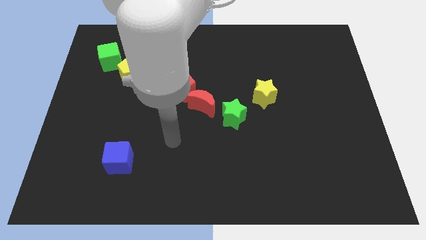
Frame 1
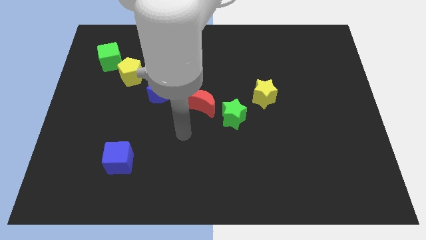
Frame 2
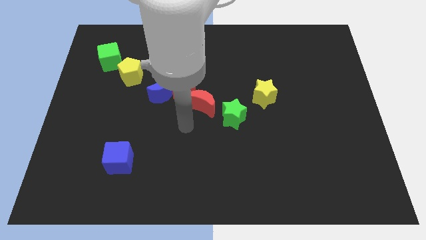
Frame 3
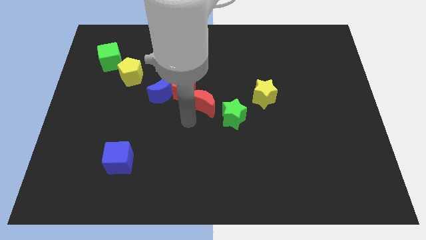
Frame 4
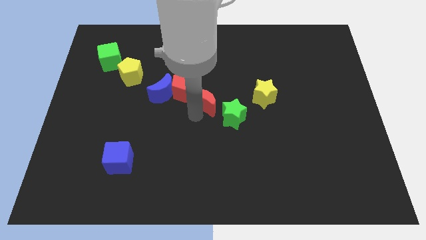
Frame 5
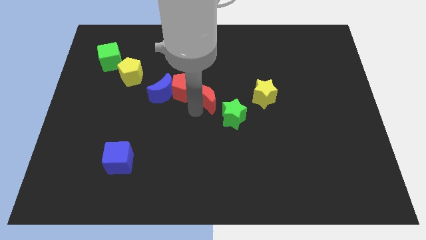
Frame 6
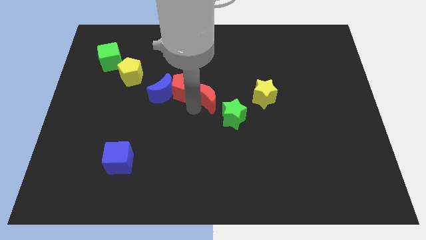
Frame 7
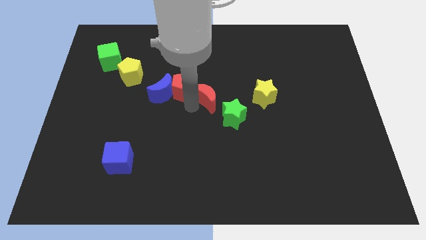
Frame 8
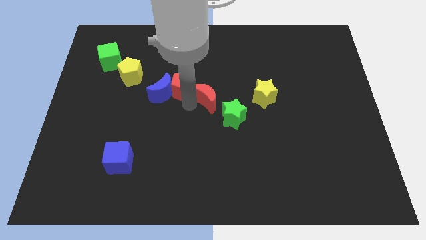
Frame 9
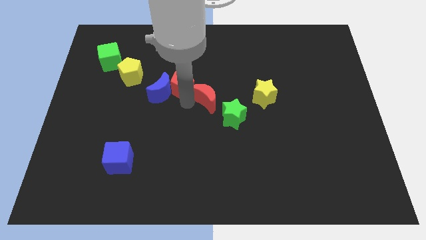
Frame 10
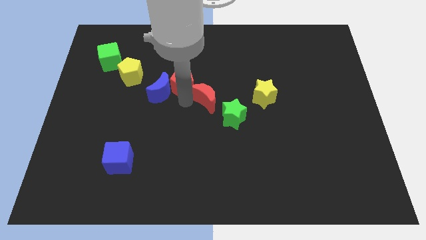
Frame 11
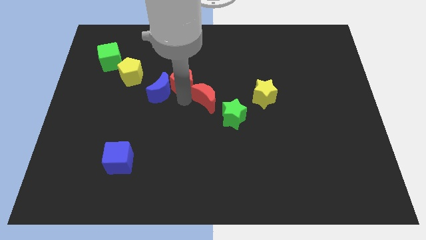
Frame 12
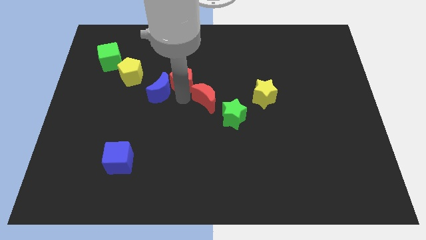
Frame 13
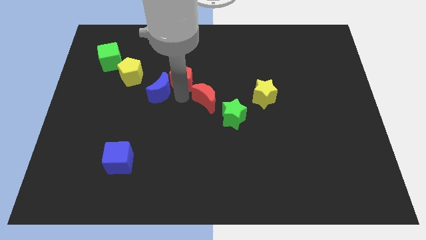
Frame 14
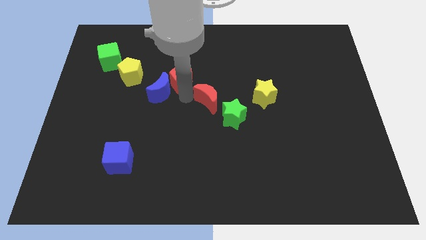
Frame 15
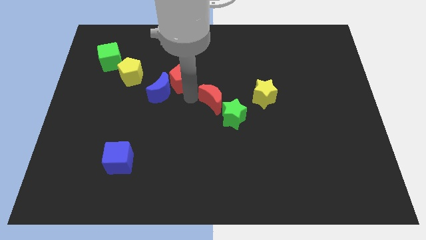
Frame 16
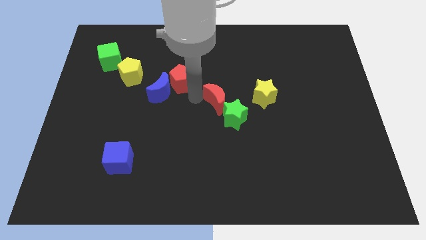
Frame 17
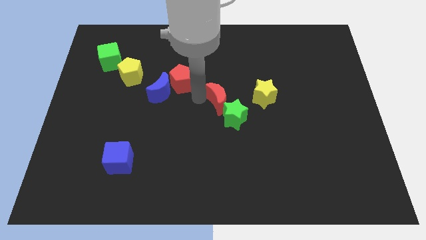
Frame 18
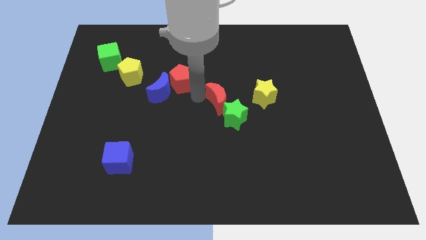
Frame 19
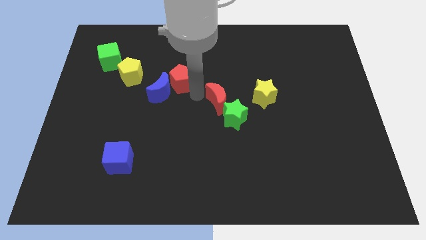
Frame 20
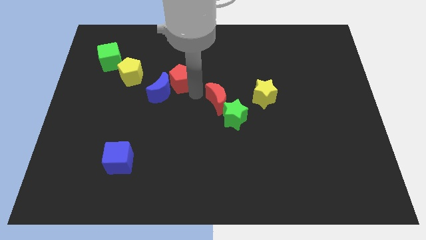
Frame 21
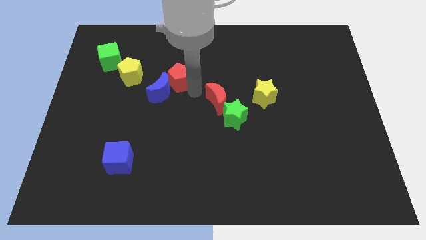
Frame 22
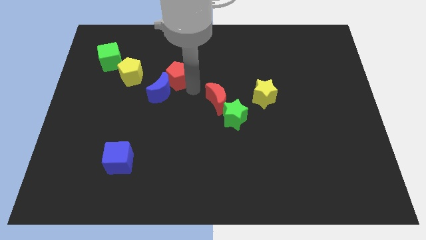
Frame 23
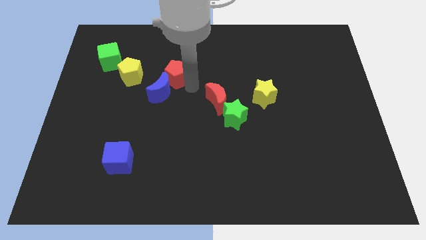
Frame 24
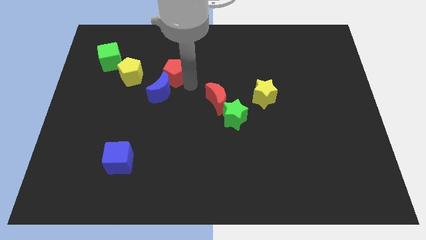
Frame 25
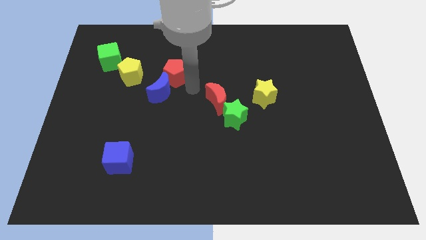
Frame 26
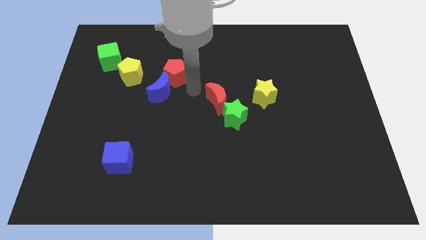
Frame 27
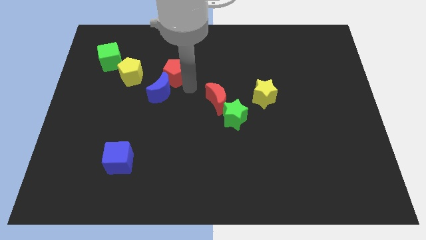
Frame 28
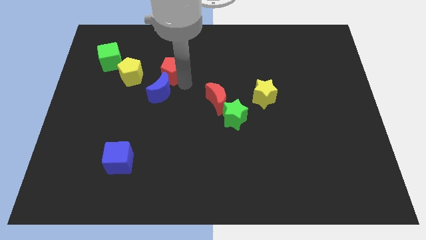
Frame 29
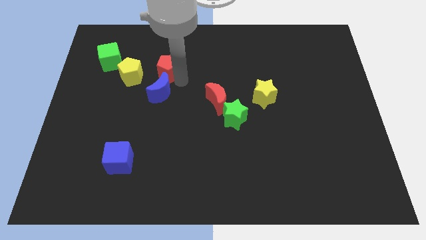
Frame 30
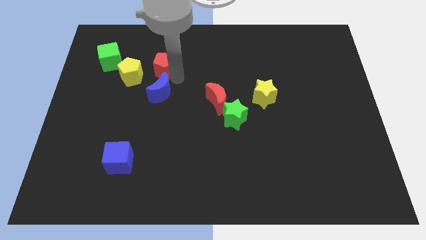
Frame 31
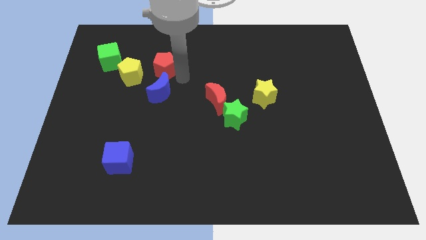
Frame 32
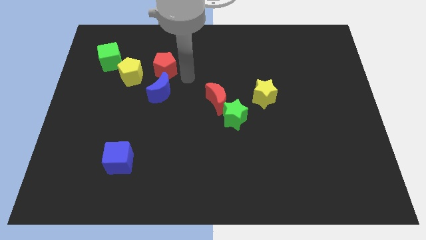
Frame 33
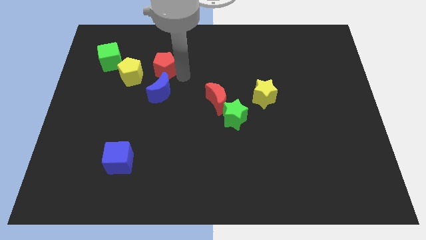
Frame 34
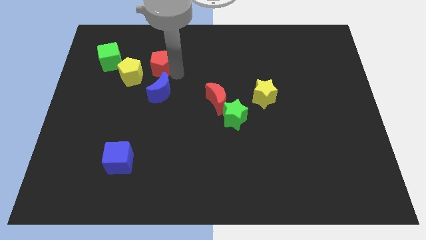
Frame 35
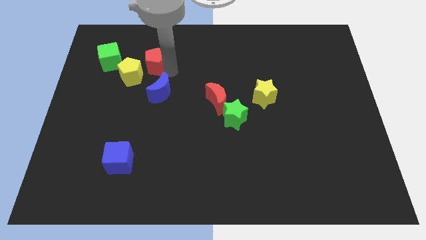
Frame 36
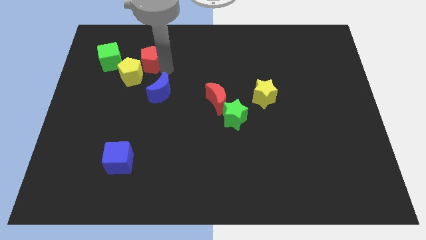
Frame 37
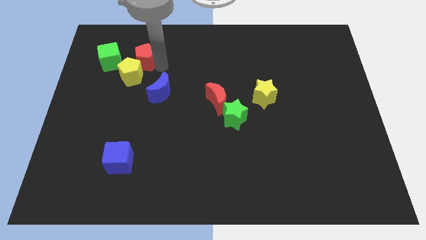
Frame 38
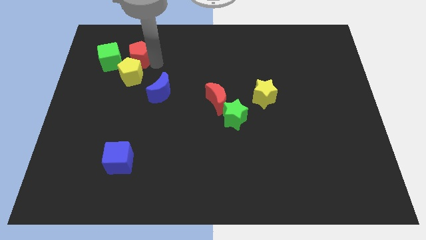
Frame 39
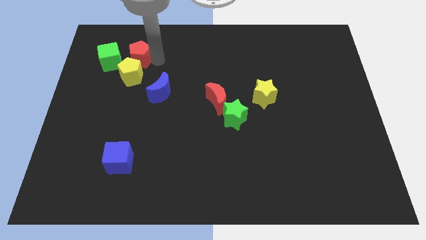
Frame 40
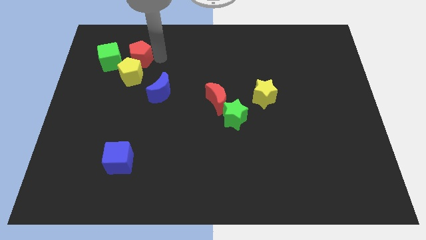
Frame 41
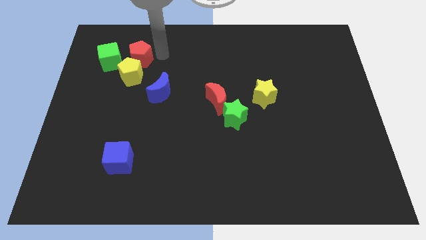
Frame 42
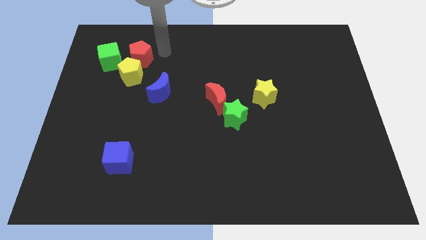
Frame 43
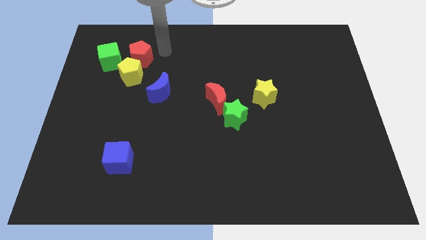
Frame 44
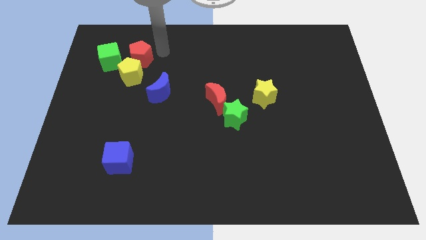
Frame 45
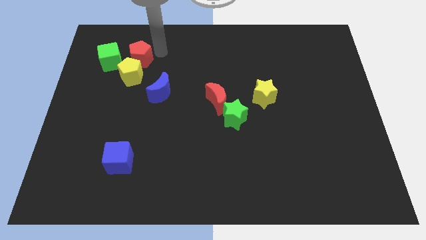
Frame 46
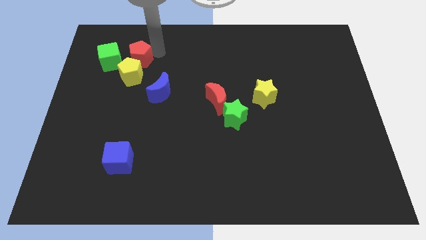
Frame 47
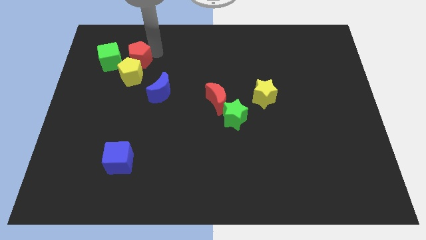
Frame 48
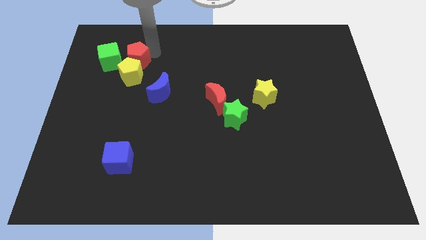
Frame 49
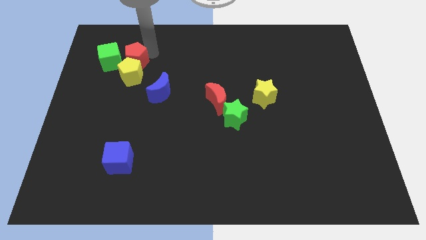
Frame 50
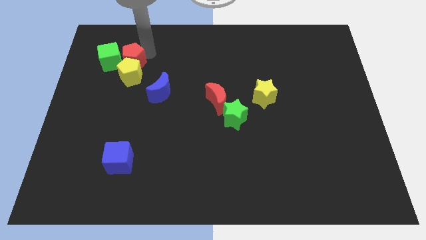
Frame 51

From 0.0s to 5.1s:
put the red pentagon towards the green cube

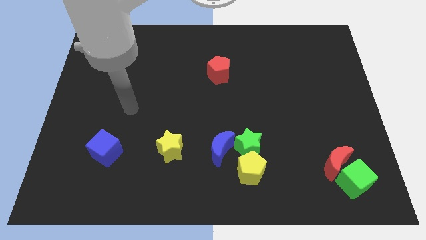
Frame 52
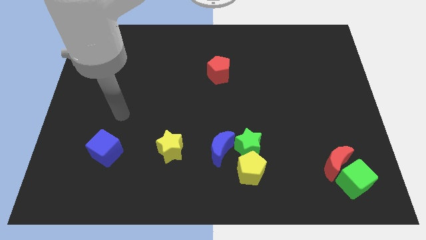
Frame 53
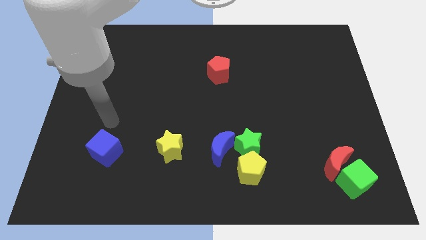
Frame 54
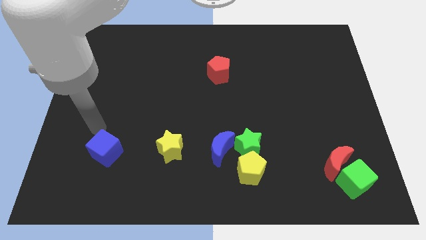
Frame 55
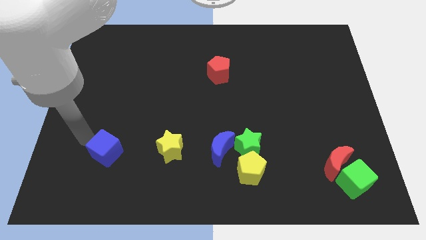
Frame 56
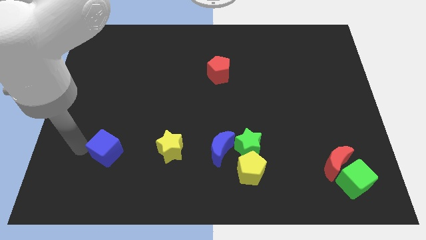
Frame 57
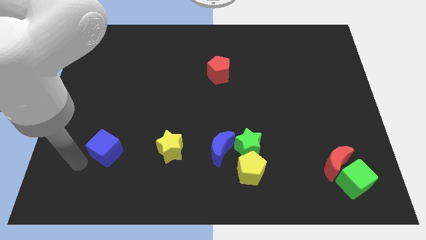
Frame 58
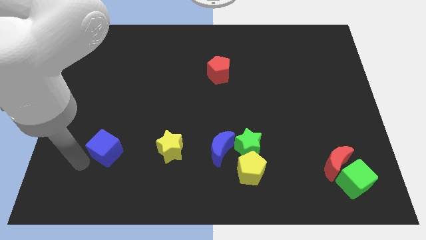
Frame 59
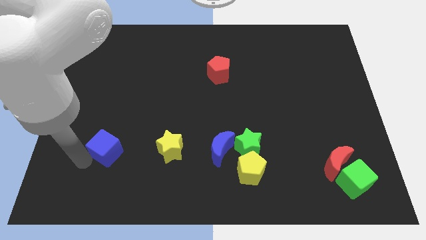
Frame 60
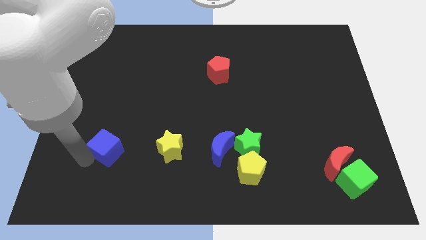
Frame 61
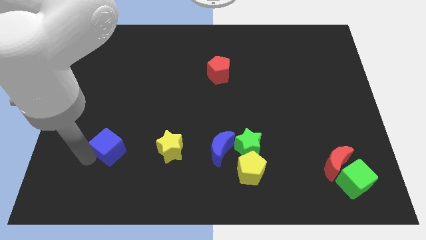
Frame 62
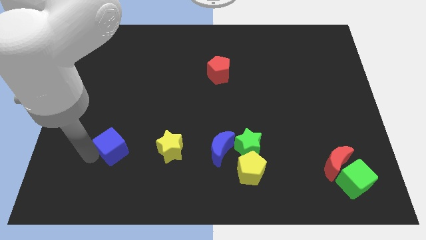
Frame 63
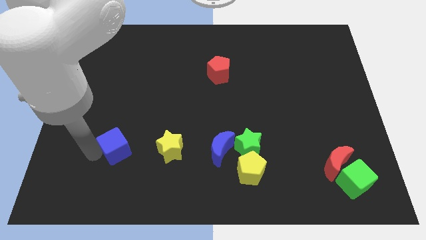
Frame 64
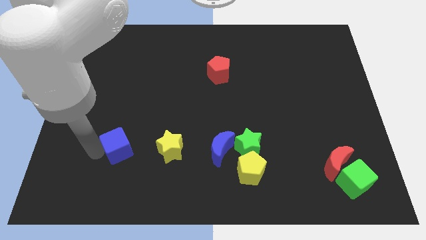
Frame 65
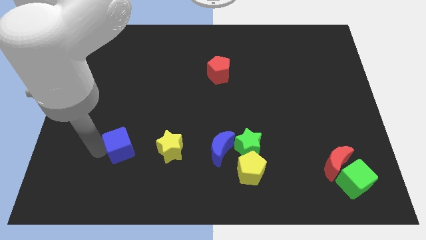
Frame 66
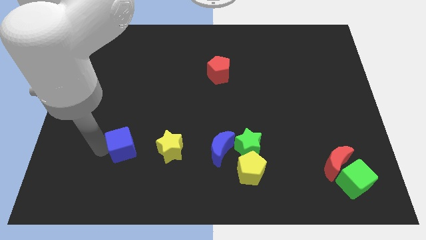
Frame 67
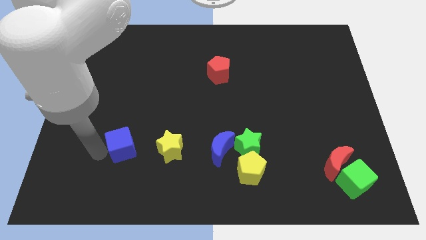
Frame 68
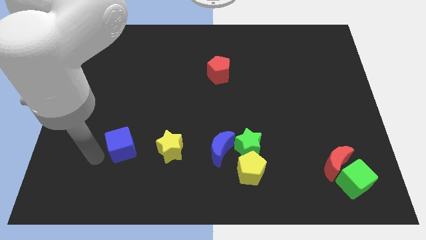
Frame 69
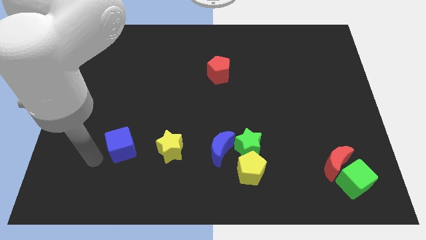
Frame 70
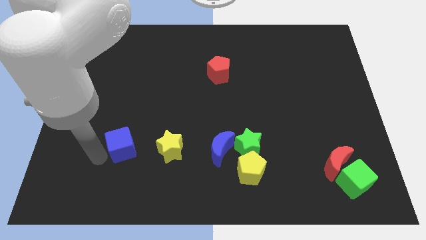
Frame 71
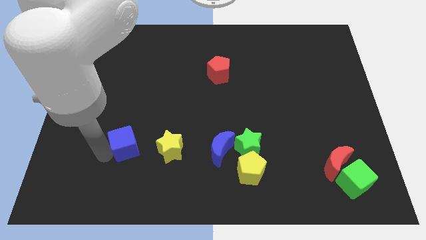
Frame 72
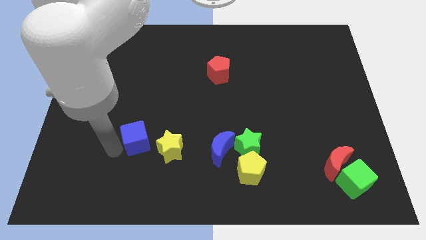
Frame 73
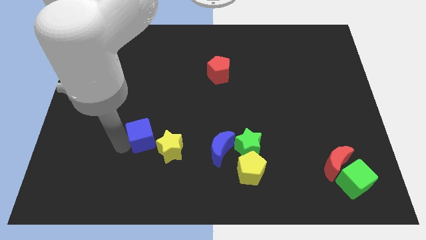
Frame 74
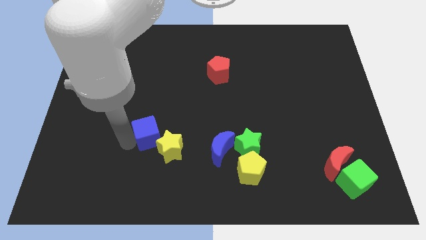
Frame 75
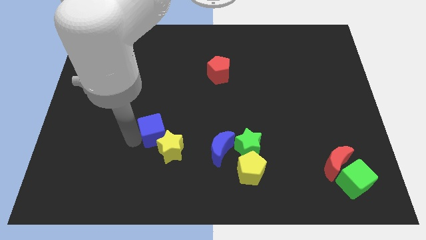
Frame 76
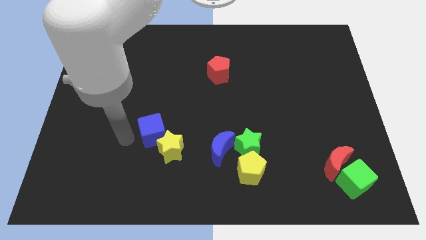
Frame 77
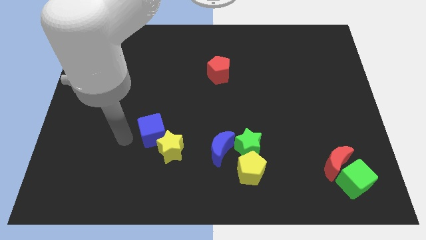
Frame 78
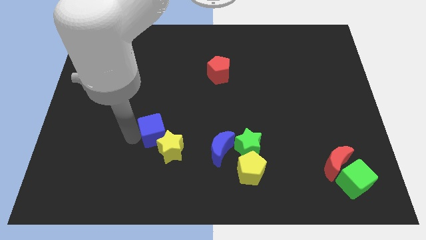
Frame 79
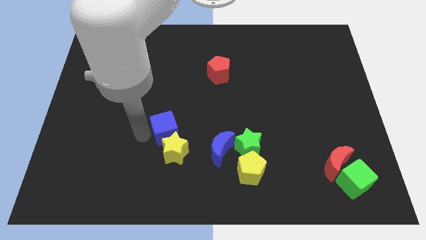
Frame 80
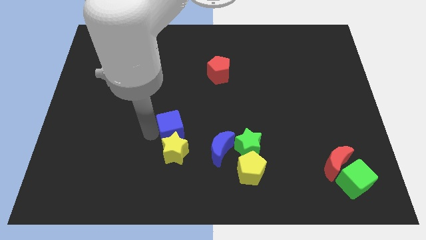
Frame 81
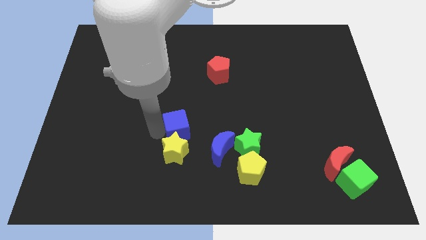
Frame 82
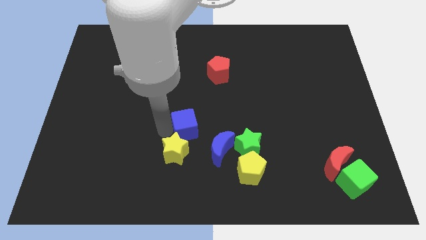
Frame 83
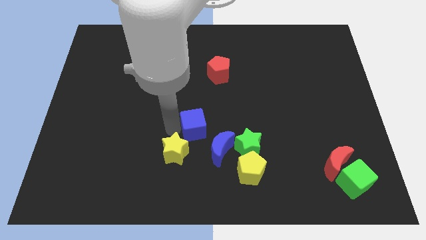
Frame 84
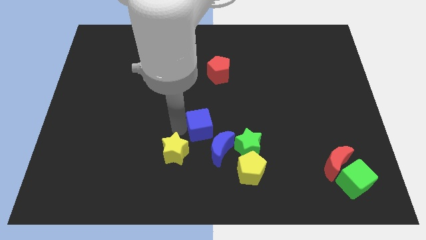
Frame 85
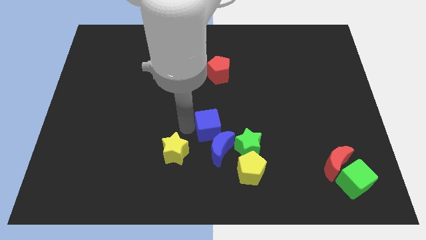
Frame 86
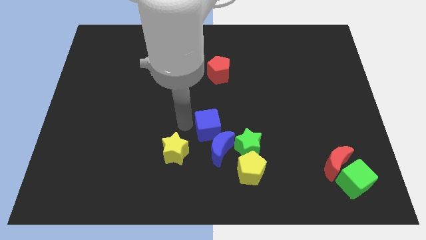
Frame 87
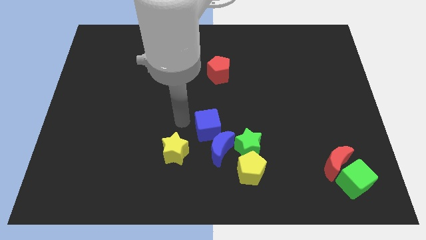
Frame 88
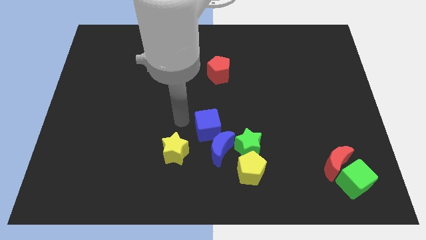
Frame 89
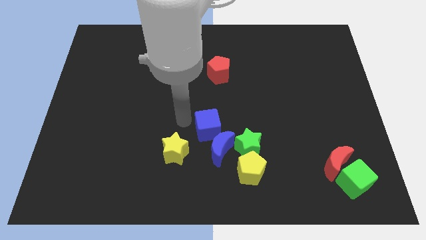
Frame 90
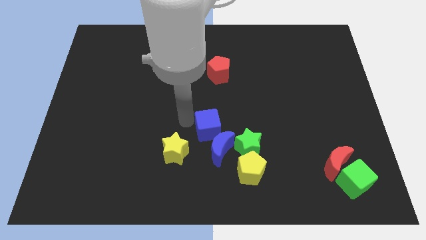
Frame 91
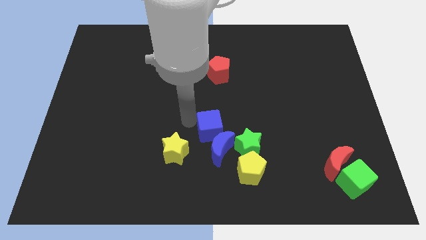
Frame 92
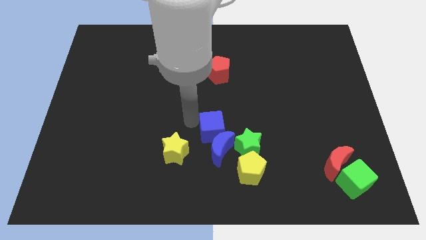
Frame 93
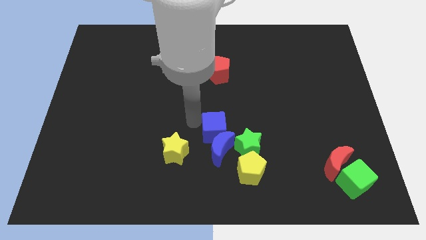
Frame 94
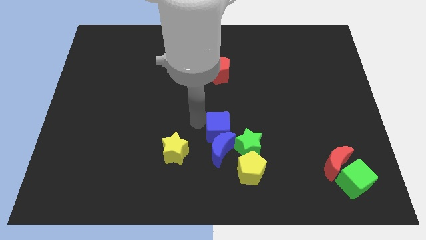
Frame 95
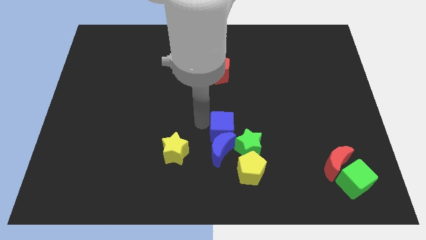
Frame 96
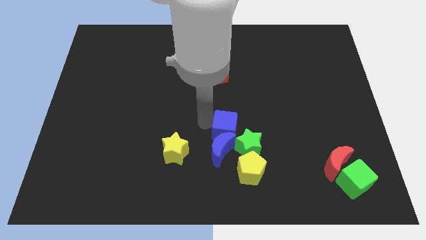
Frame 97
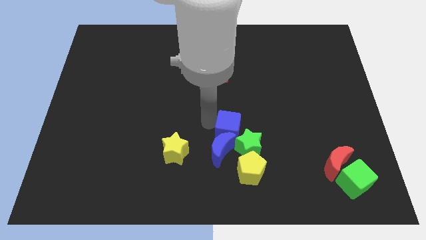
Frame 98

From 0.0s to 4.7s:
move the blue cube towards the green star
